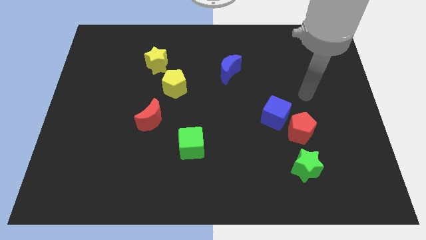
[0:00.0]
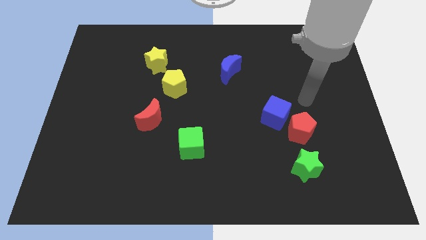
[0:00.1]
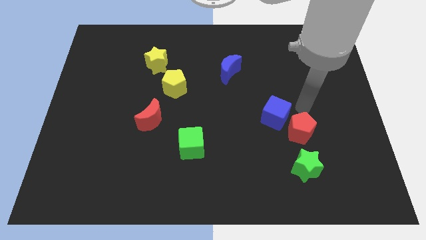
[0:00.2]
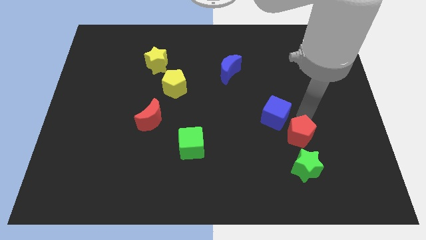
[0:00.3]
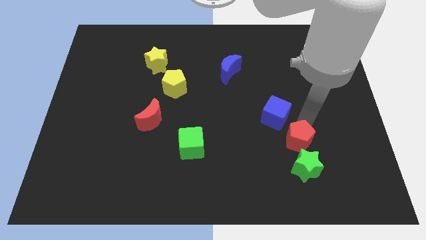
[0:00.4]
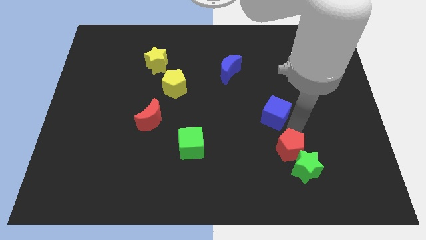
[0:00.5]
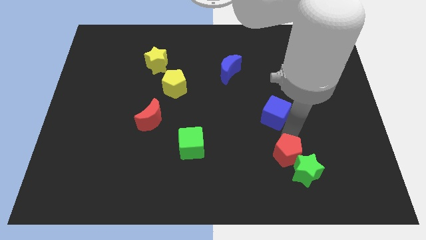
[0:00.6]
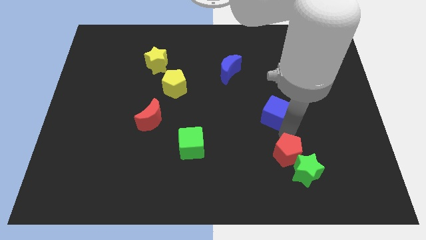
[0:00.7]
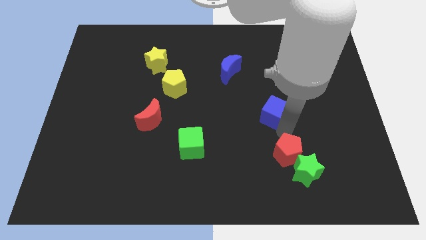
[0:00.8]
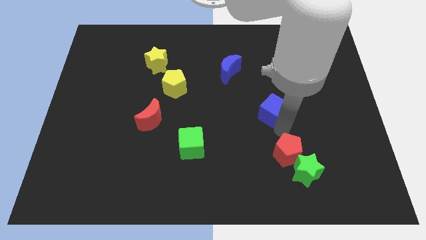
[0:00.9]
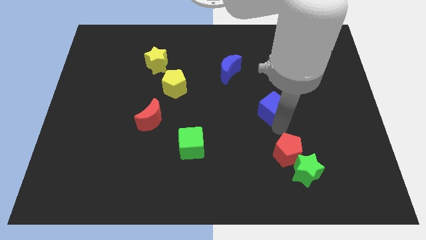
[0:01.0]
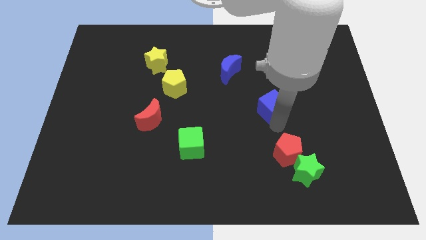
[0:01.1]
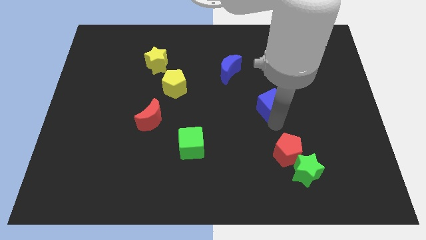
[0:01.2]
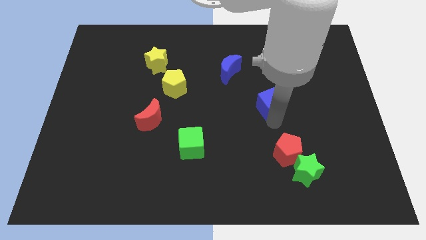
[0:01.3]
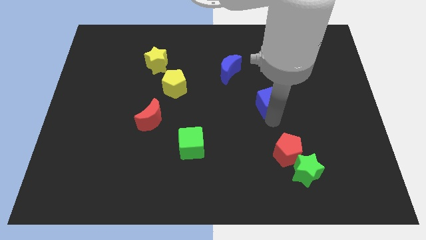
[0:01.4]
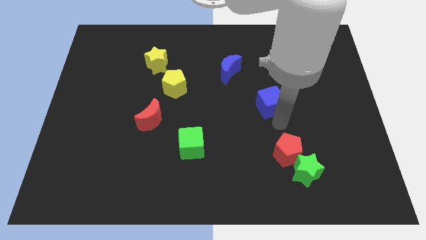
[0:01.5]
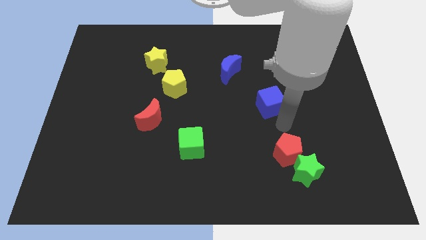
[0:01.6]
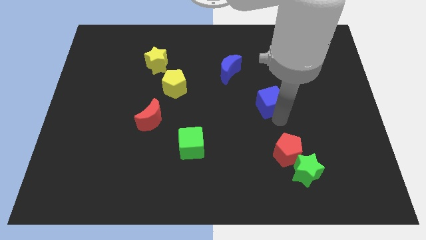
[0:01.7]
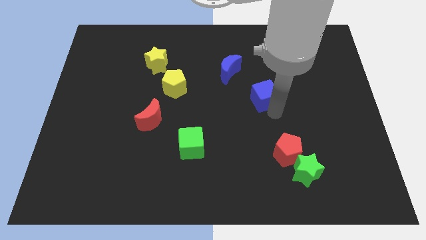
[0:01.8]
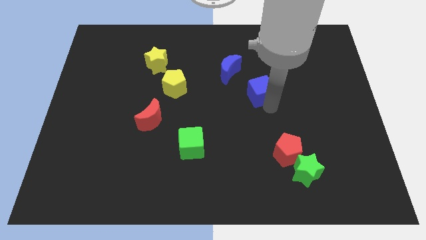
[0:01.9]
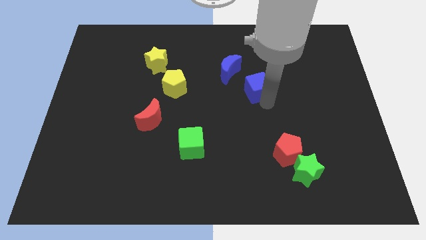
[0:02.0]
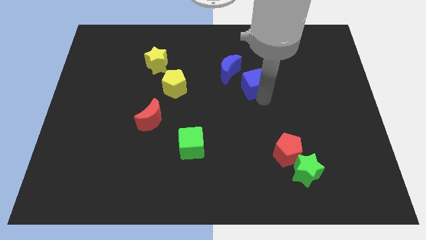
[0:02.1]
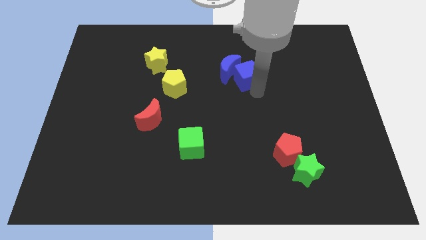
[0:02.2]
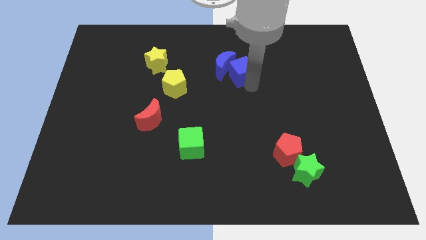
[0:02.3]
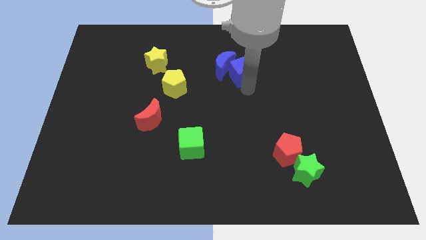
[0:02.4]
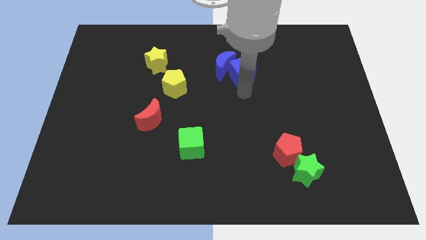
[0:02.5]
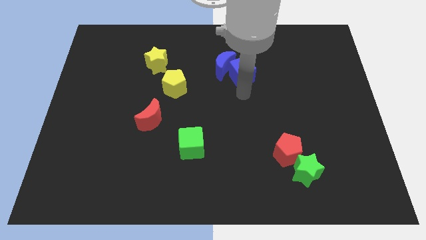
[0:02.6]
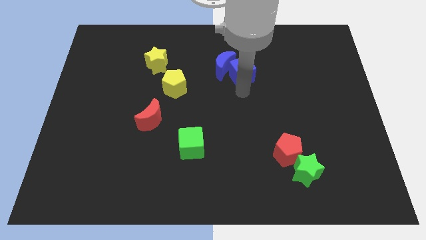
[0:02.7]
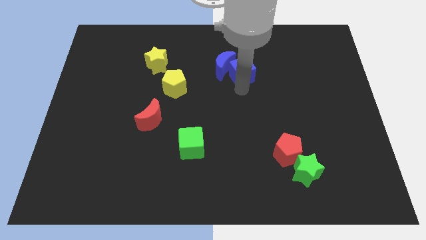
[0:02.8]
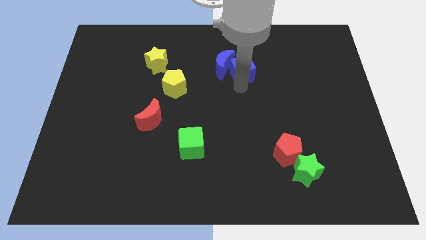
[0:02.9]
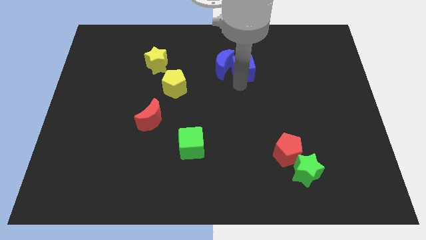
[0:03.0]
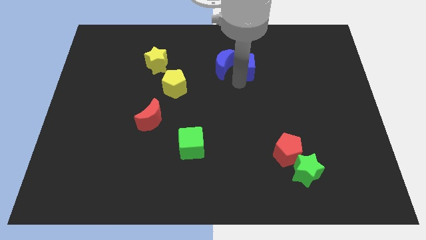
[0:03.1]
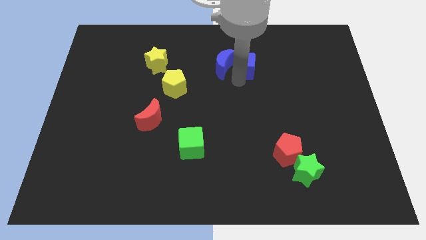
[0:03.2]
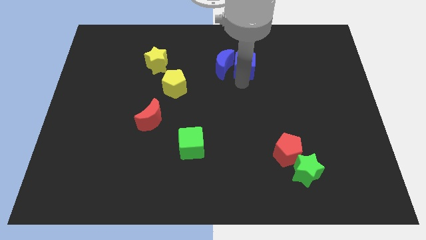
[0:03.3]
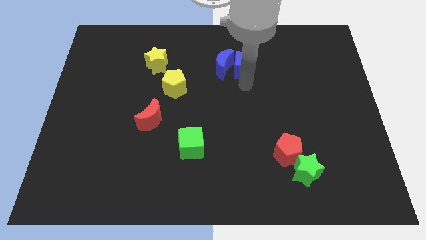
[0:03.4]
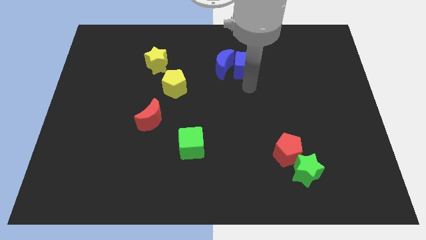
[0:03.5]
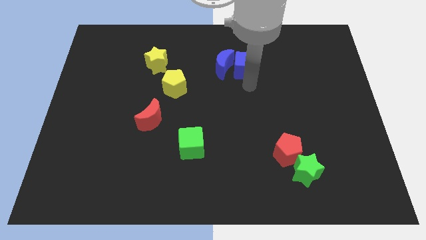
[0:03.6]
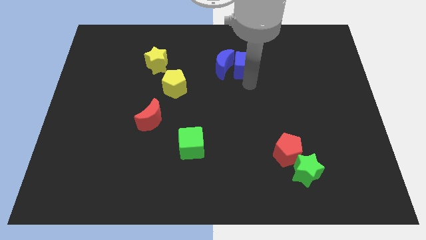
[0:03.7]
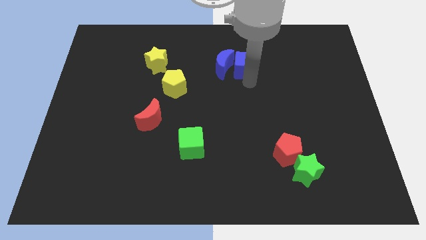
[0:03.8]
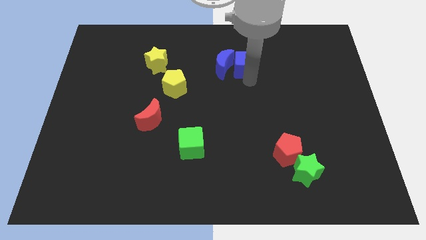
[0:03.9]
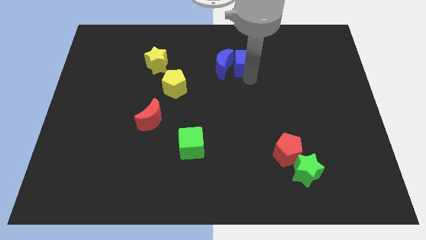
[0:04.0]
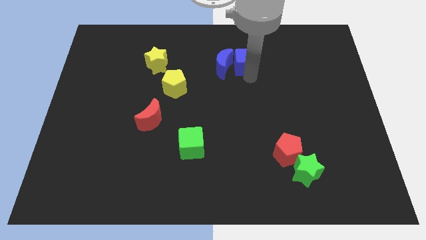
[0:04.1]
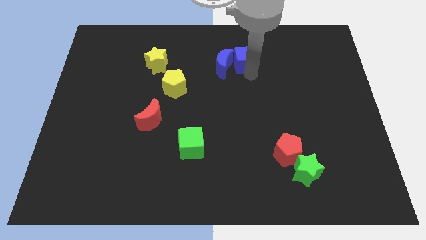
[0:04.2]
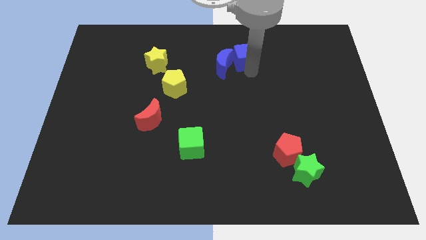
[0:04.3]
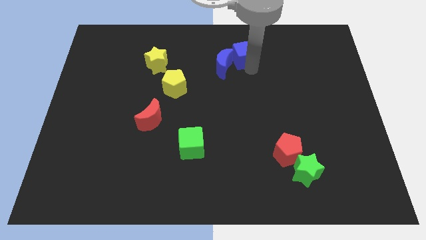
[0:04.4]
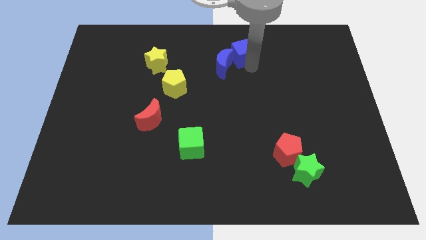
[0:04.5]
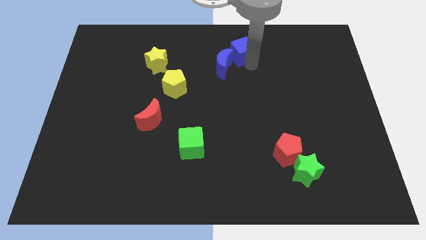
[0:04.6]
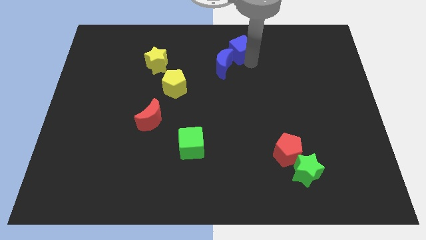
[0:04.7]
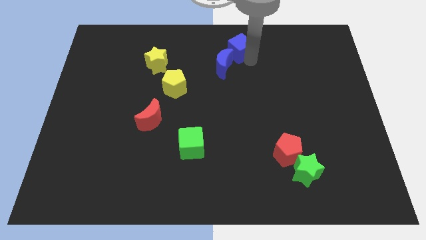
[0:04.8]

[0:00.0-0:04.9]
push the blue cube to the towards your base
